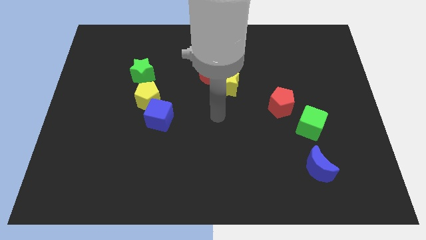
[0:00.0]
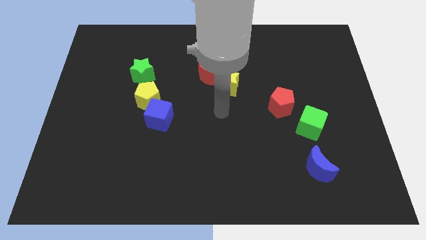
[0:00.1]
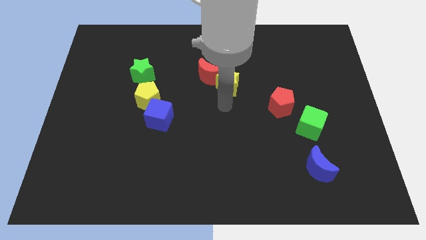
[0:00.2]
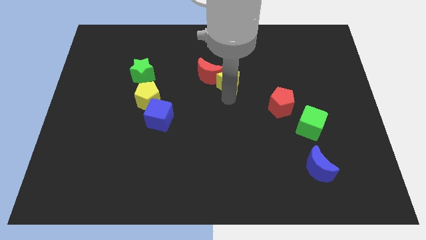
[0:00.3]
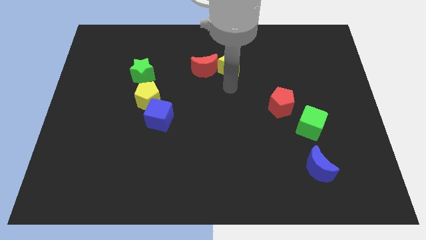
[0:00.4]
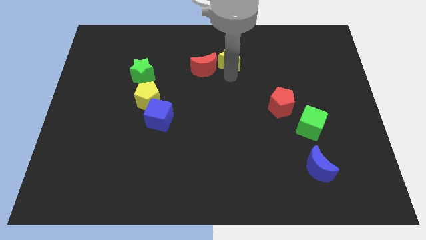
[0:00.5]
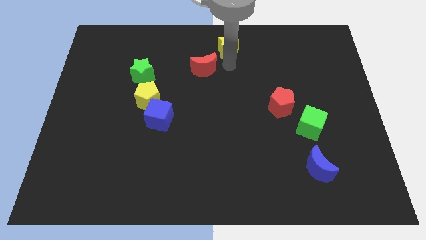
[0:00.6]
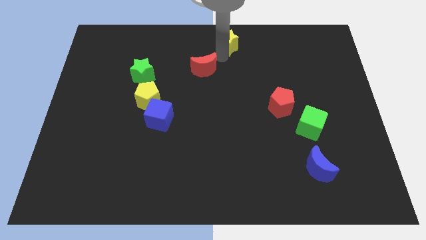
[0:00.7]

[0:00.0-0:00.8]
move the red moon away from the yellow star

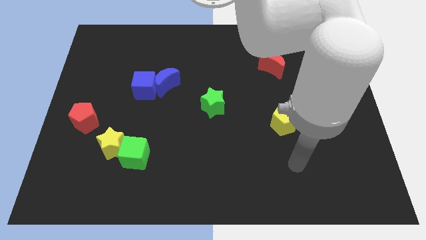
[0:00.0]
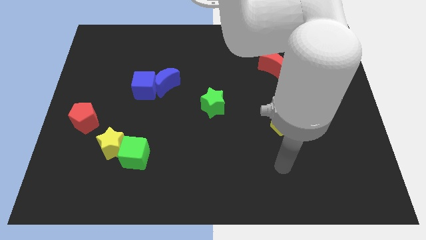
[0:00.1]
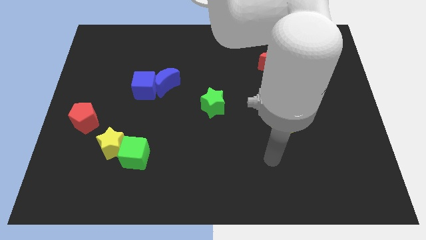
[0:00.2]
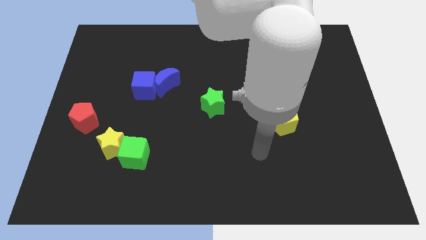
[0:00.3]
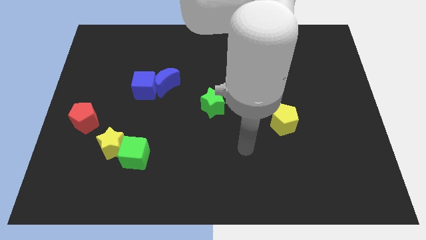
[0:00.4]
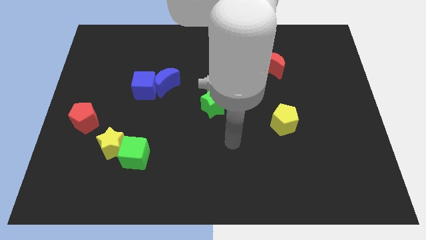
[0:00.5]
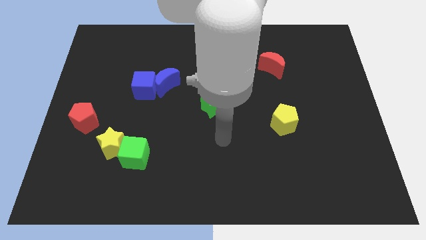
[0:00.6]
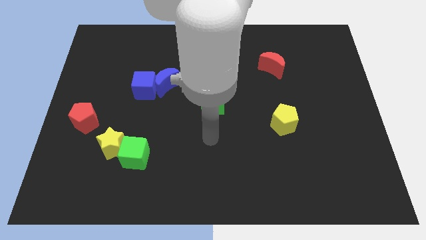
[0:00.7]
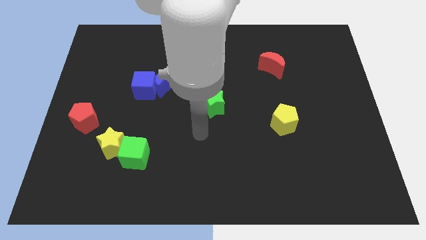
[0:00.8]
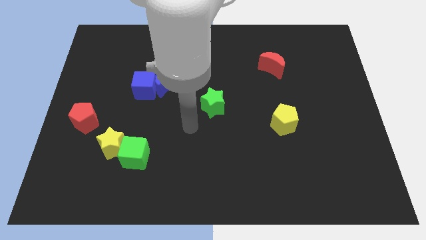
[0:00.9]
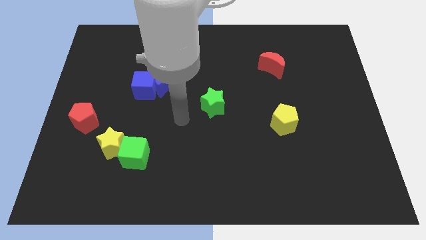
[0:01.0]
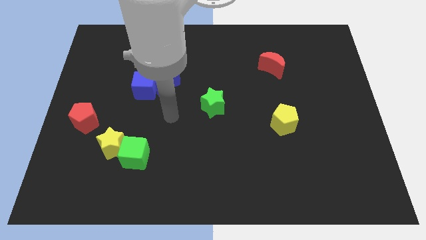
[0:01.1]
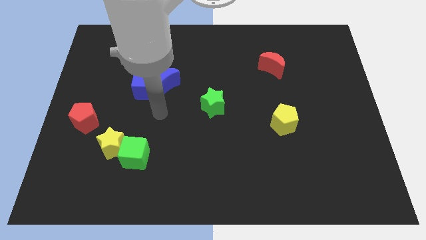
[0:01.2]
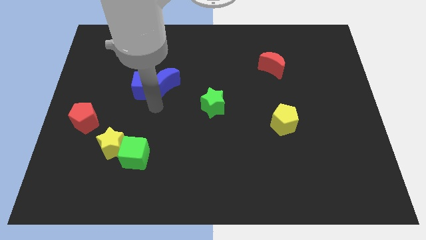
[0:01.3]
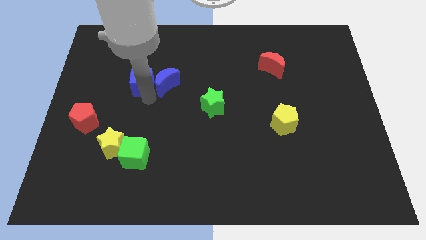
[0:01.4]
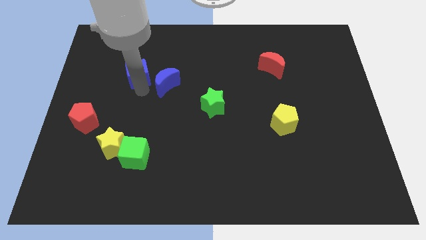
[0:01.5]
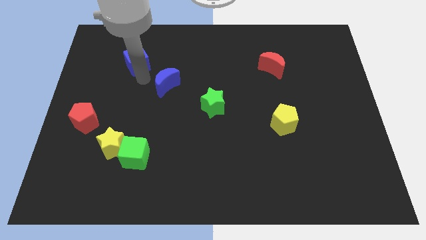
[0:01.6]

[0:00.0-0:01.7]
move the blue moon away from the blue cube

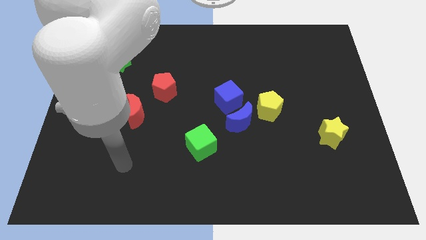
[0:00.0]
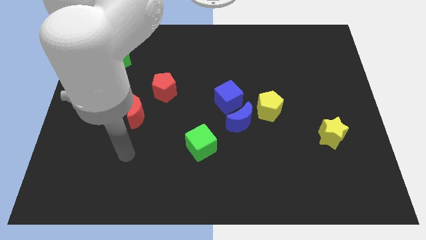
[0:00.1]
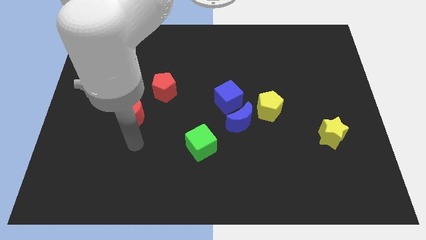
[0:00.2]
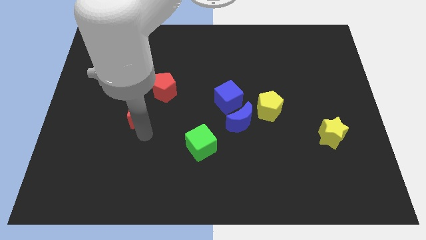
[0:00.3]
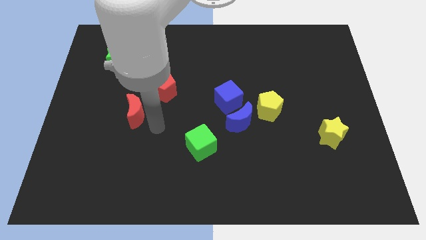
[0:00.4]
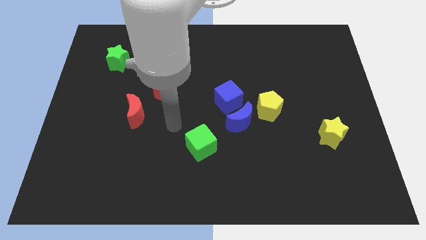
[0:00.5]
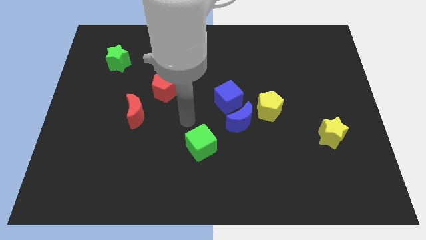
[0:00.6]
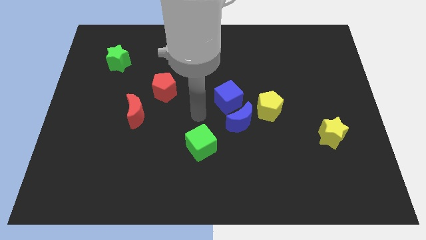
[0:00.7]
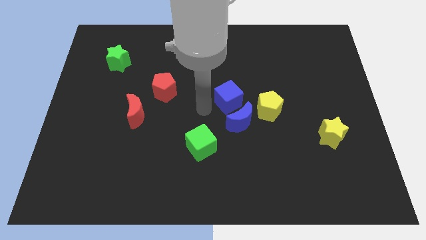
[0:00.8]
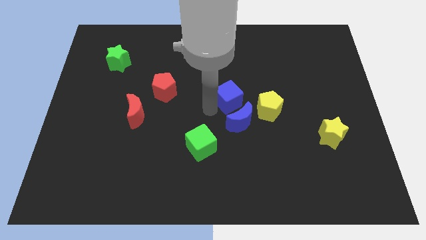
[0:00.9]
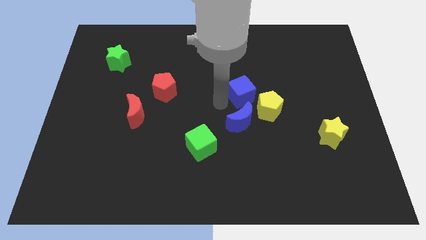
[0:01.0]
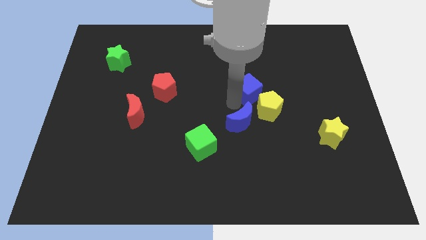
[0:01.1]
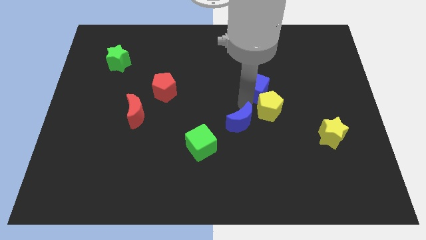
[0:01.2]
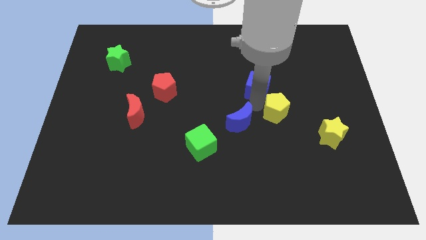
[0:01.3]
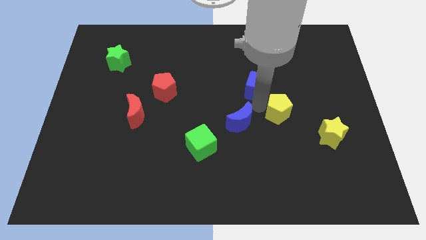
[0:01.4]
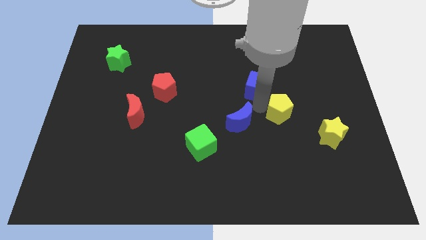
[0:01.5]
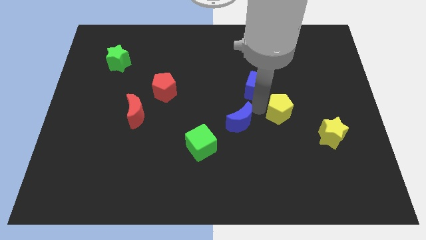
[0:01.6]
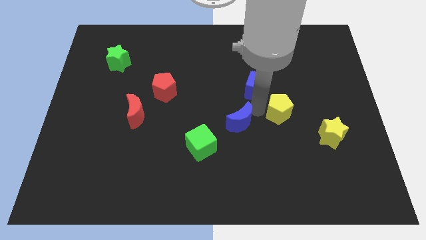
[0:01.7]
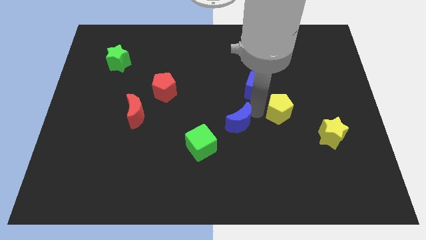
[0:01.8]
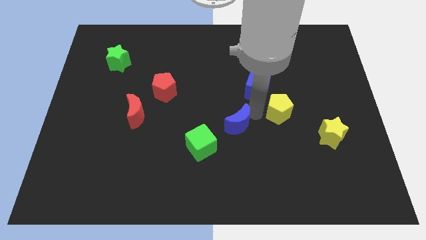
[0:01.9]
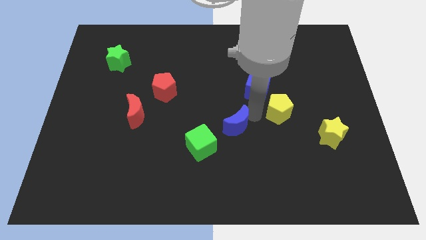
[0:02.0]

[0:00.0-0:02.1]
move the blue moon away from the blue cube and yellow pentagon

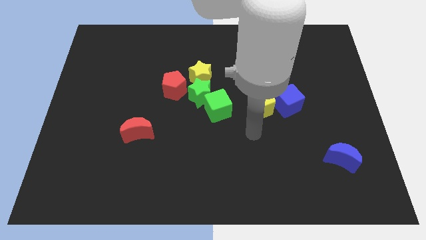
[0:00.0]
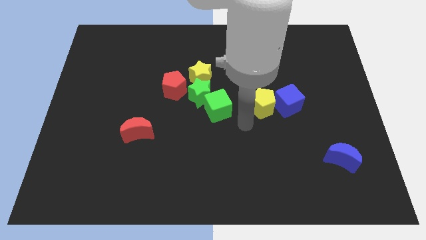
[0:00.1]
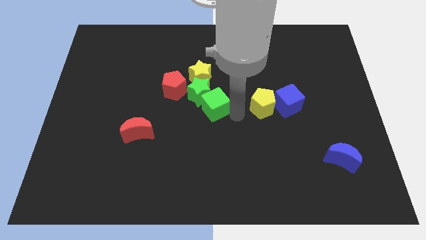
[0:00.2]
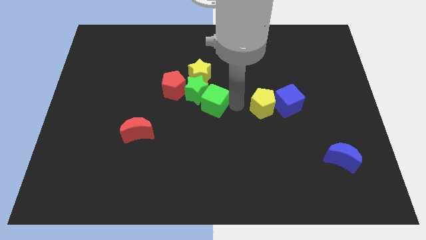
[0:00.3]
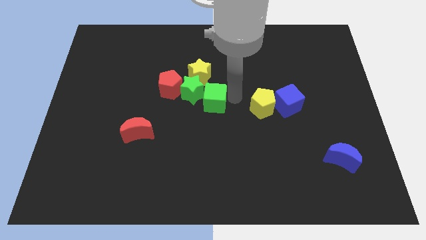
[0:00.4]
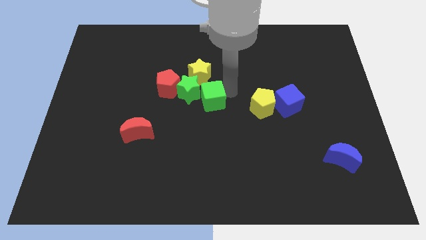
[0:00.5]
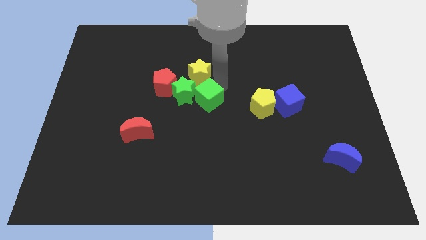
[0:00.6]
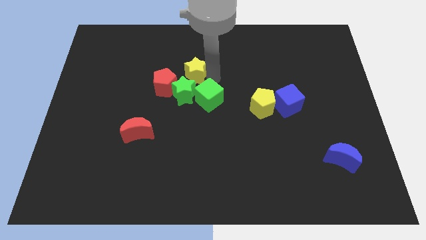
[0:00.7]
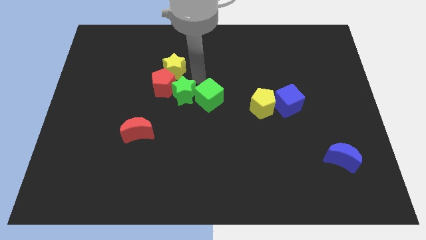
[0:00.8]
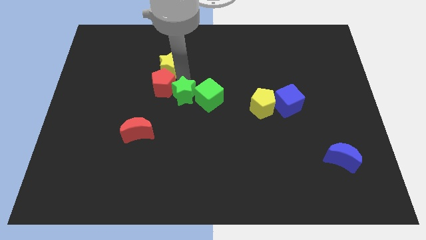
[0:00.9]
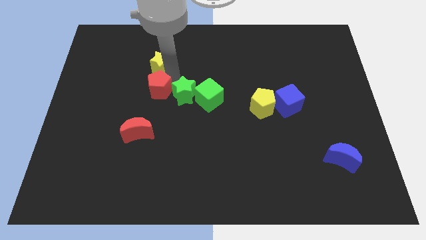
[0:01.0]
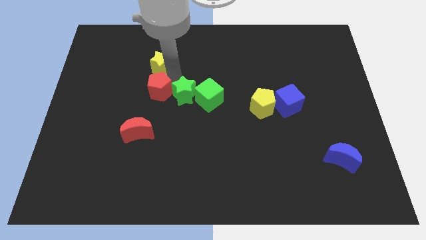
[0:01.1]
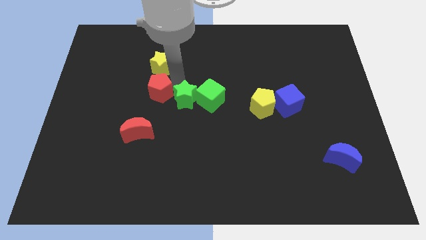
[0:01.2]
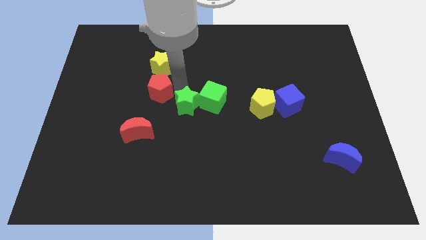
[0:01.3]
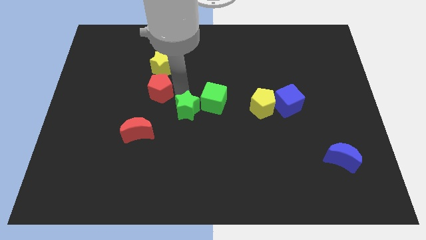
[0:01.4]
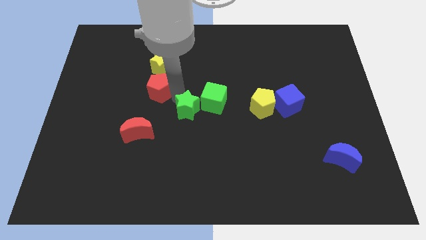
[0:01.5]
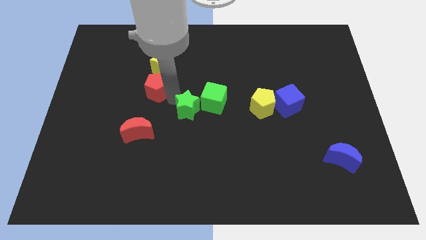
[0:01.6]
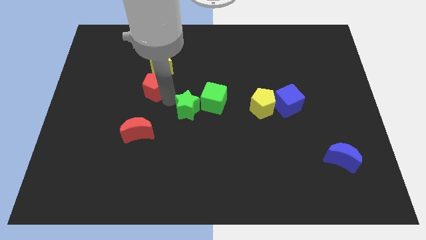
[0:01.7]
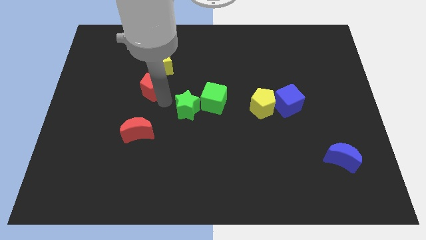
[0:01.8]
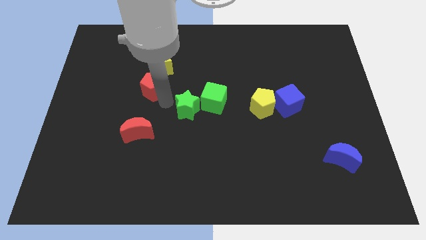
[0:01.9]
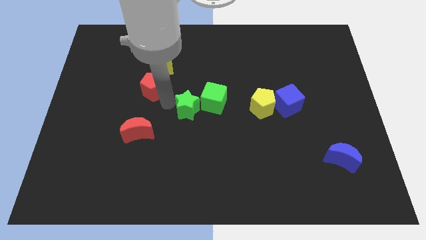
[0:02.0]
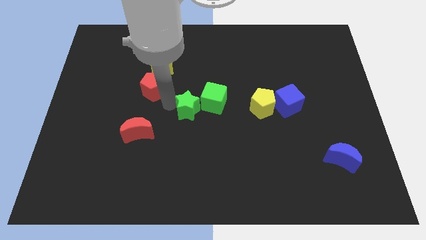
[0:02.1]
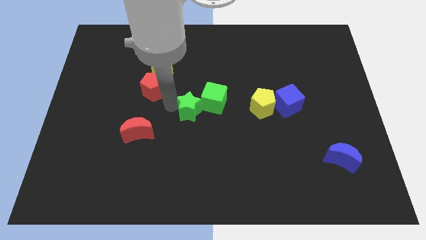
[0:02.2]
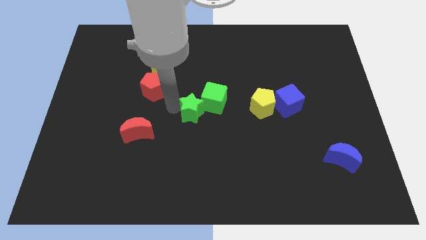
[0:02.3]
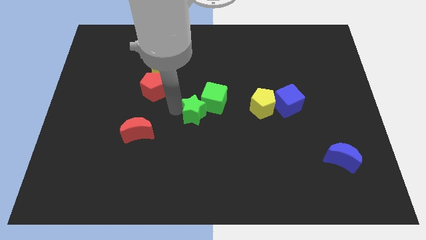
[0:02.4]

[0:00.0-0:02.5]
separate the green star from the green cube, yellow star, and red pentagon

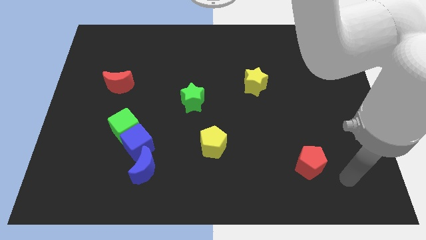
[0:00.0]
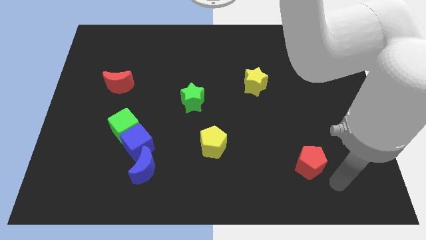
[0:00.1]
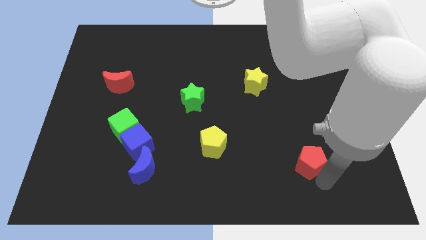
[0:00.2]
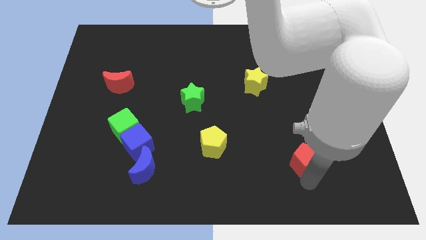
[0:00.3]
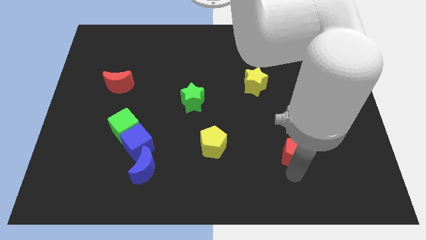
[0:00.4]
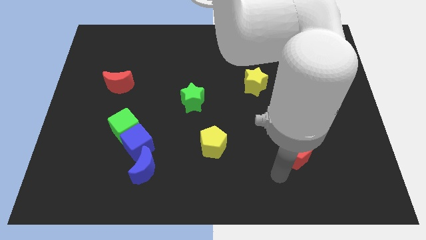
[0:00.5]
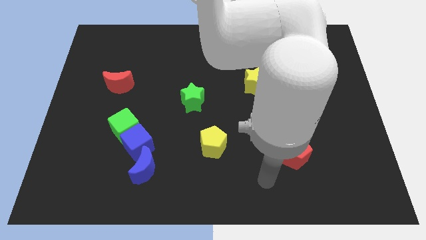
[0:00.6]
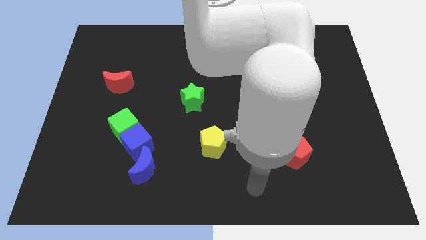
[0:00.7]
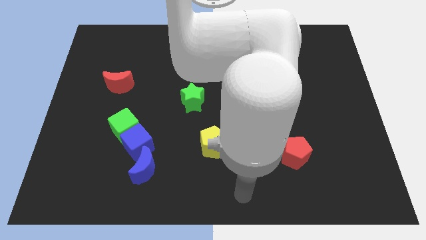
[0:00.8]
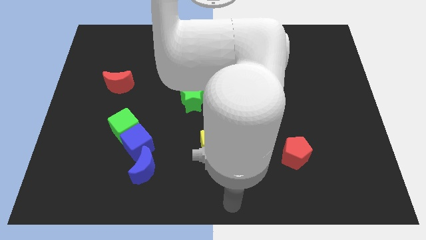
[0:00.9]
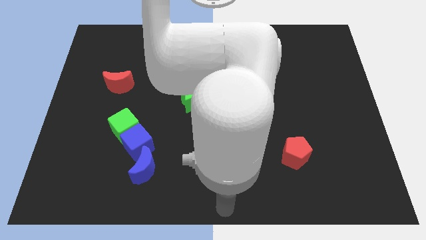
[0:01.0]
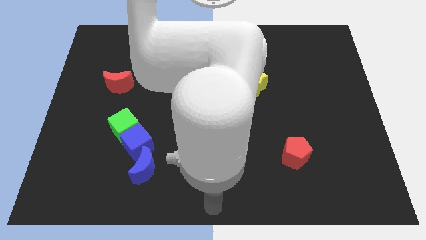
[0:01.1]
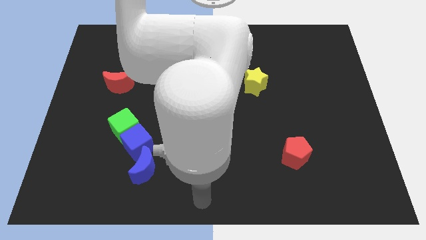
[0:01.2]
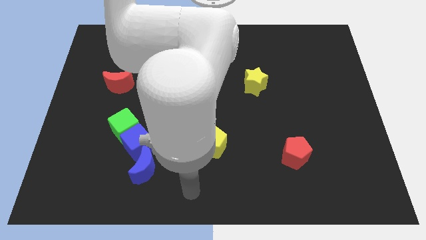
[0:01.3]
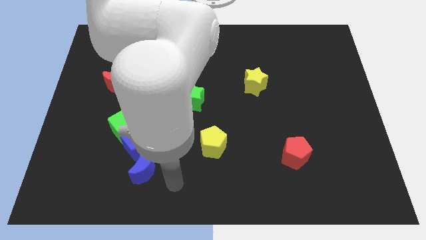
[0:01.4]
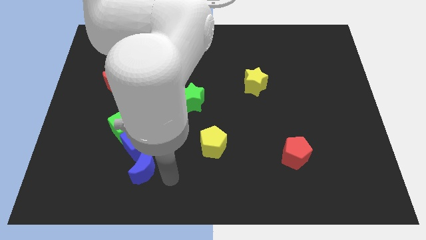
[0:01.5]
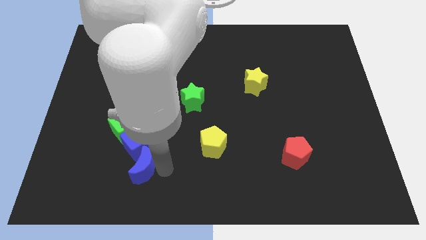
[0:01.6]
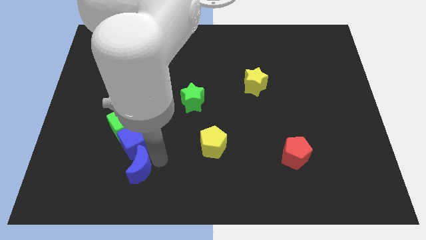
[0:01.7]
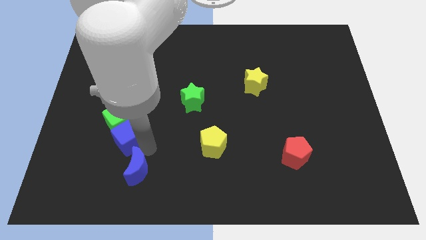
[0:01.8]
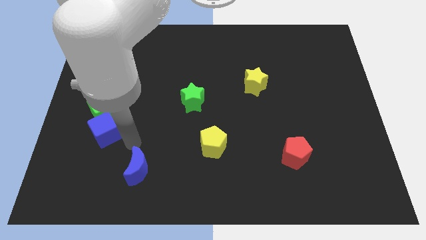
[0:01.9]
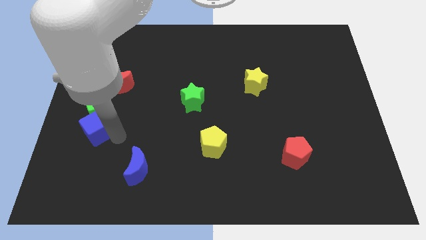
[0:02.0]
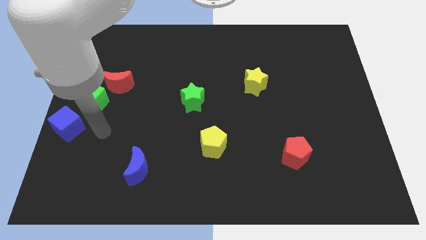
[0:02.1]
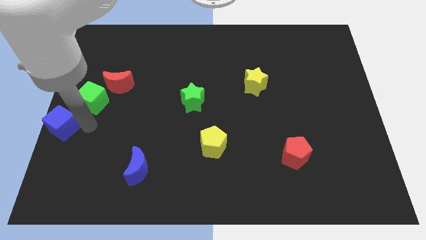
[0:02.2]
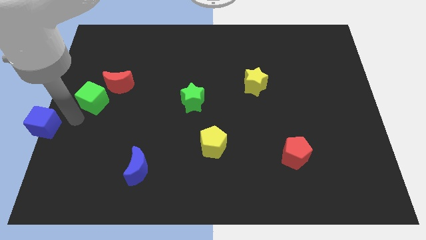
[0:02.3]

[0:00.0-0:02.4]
separate the green cube from the blue cube
